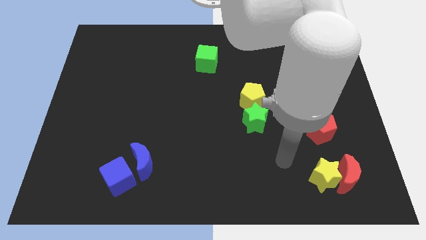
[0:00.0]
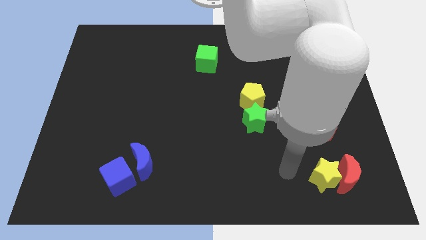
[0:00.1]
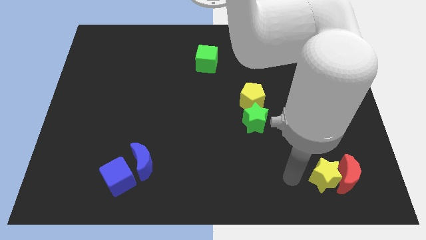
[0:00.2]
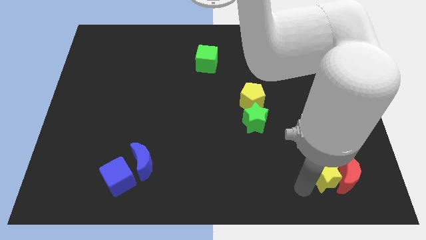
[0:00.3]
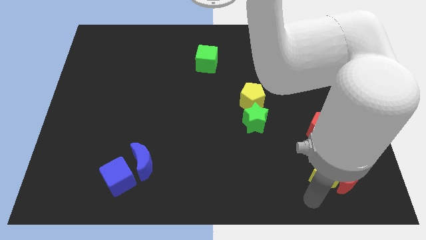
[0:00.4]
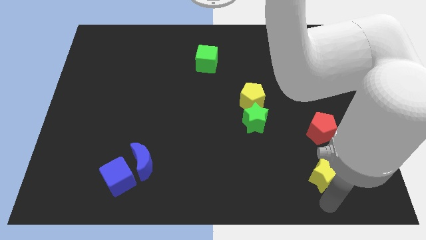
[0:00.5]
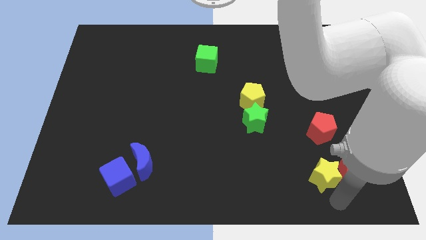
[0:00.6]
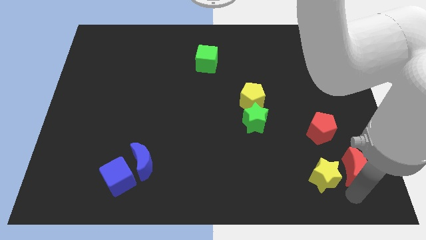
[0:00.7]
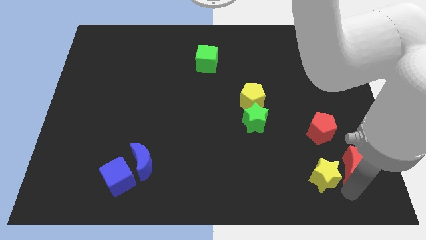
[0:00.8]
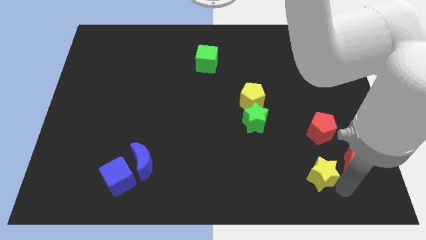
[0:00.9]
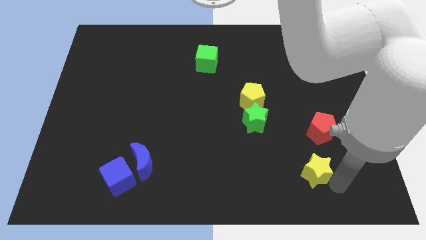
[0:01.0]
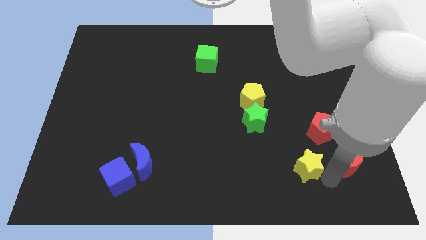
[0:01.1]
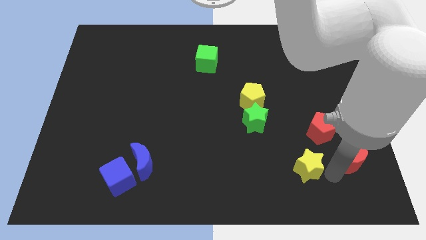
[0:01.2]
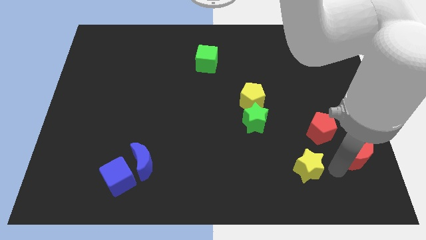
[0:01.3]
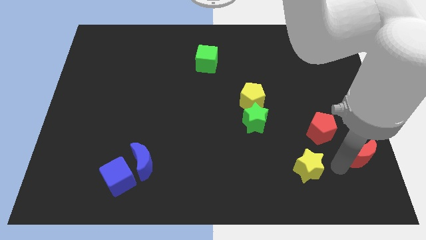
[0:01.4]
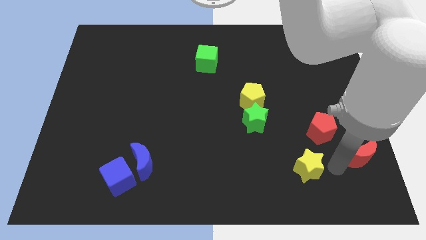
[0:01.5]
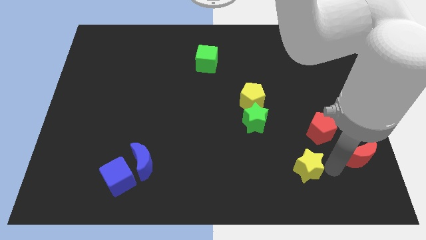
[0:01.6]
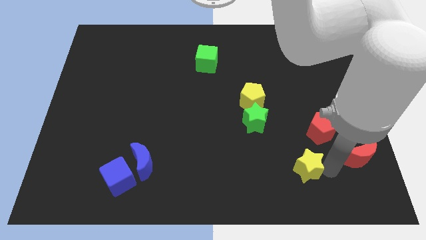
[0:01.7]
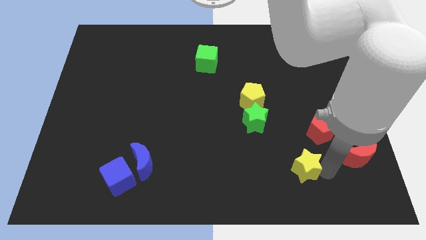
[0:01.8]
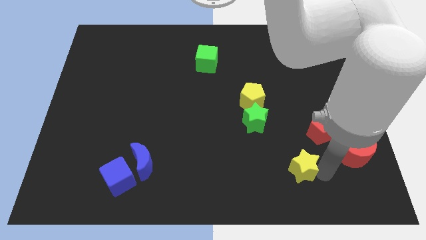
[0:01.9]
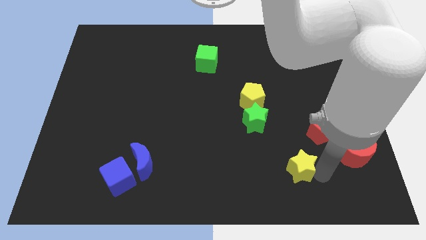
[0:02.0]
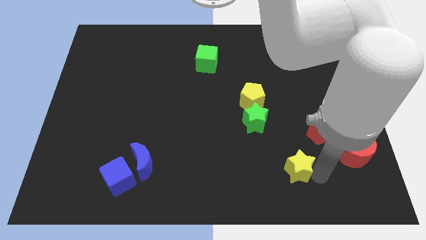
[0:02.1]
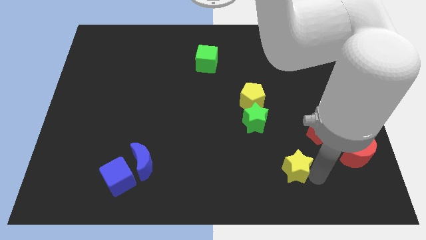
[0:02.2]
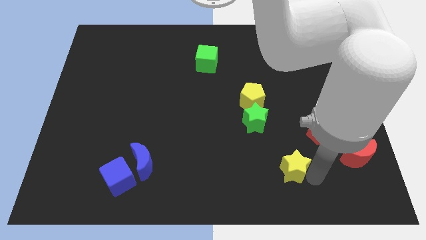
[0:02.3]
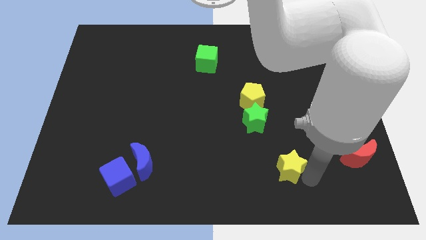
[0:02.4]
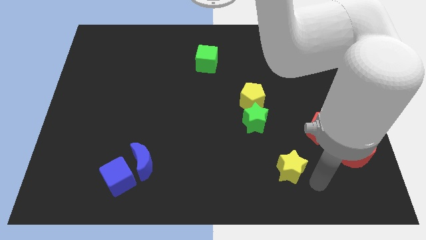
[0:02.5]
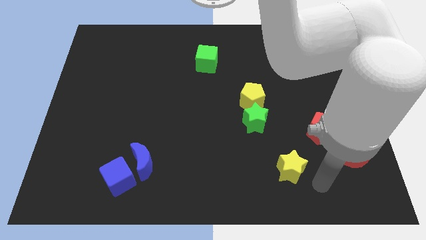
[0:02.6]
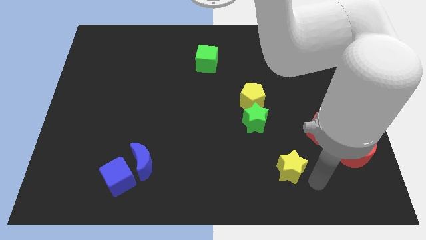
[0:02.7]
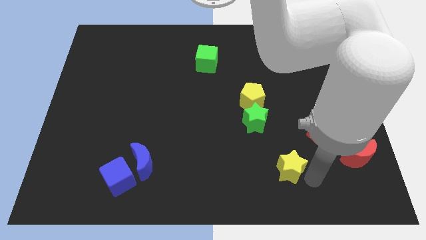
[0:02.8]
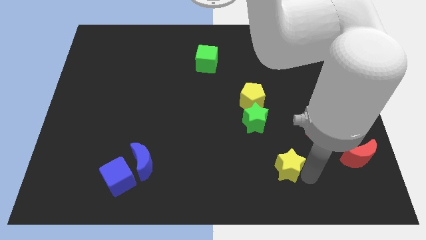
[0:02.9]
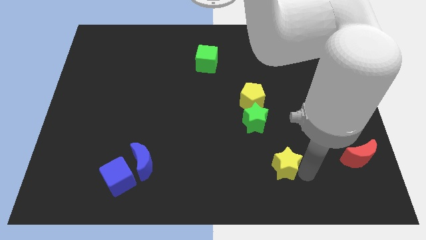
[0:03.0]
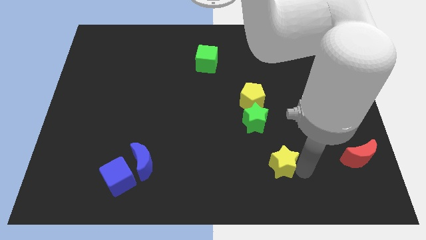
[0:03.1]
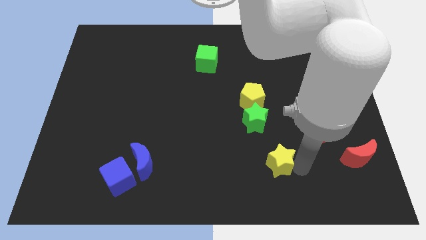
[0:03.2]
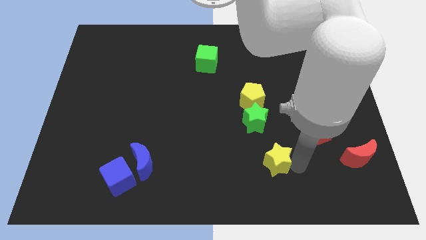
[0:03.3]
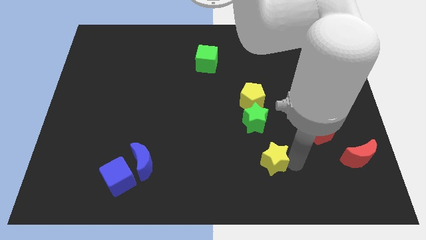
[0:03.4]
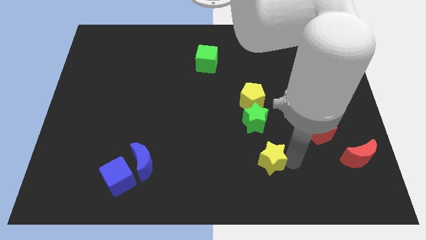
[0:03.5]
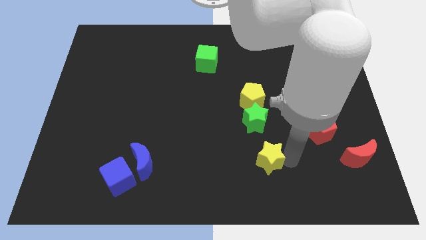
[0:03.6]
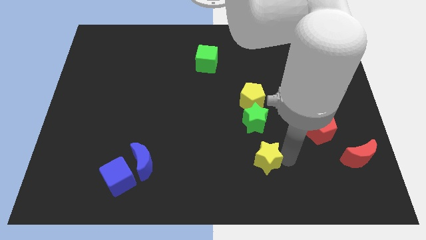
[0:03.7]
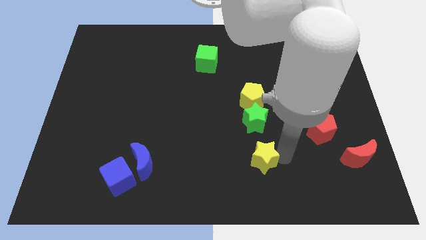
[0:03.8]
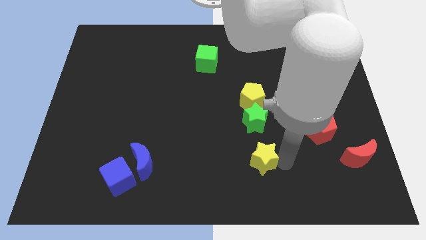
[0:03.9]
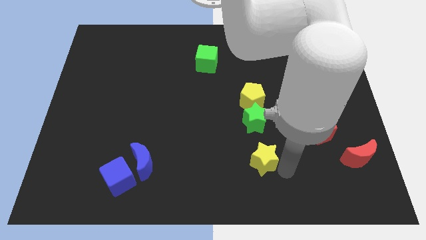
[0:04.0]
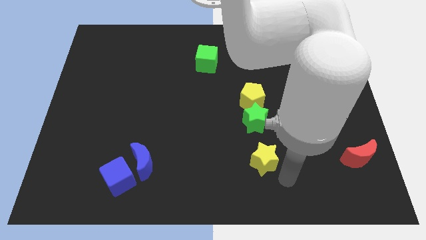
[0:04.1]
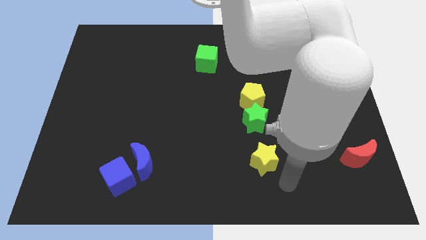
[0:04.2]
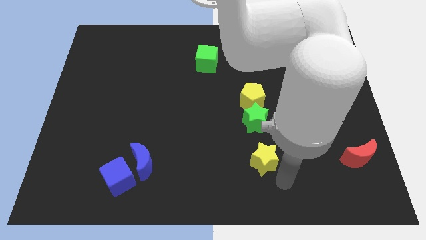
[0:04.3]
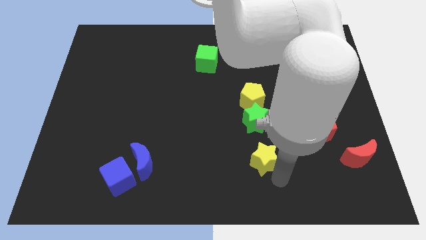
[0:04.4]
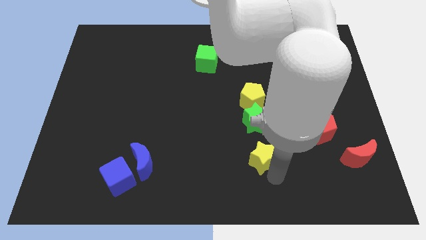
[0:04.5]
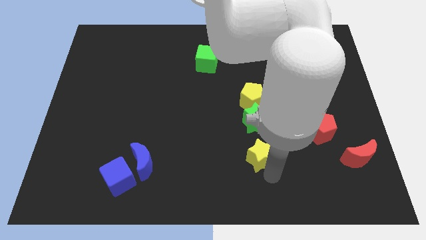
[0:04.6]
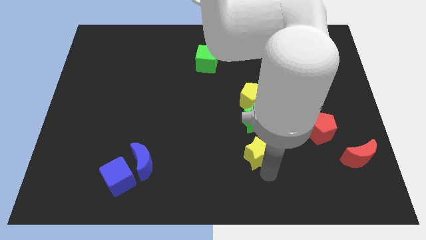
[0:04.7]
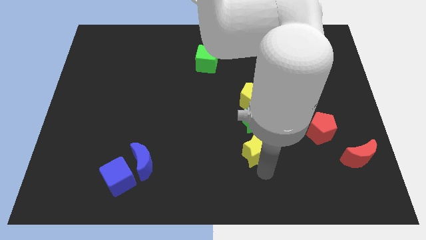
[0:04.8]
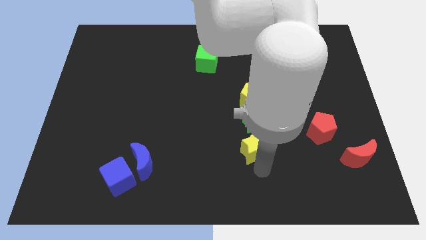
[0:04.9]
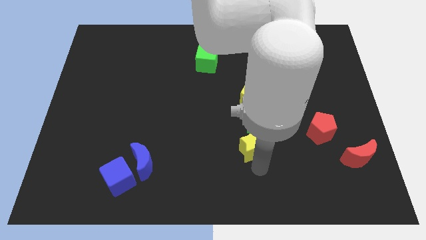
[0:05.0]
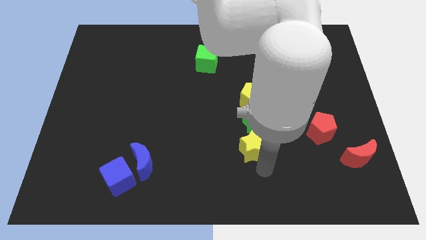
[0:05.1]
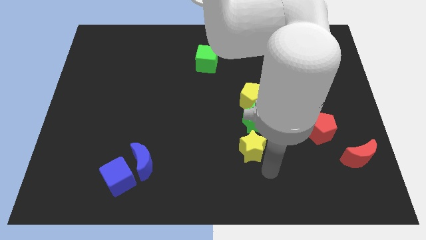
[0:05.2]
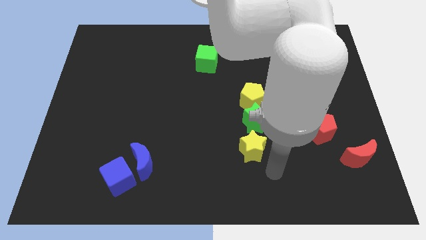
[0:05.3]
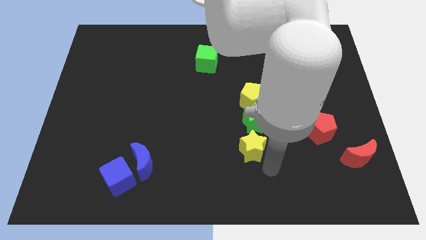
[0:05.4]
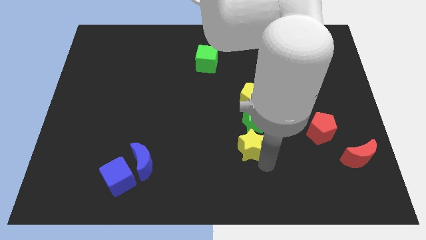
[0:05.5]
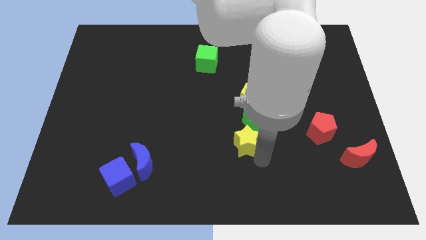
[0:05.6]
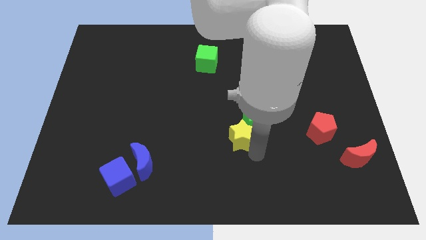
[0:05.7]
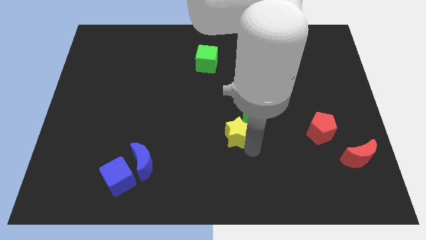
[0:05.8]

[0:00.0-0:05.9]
slide the yellow star left of the green star

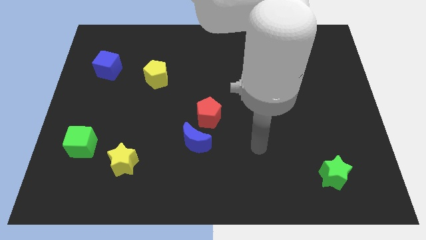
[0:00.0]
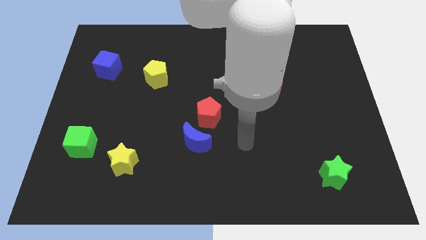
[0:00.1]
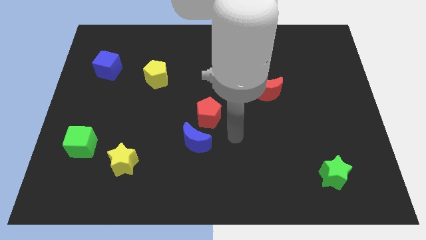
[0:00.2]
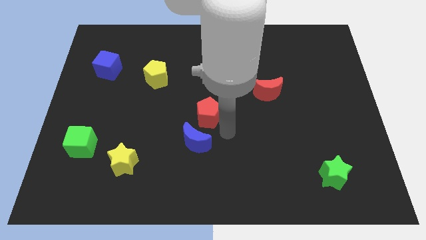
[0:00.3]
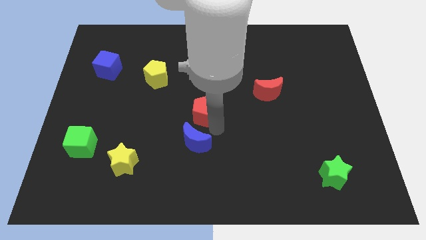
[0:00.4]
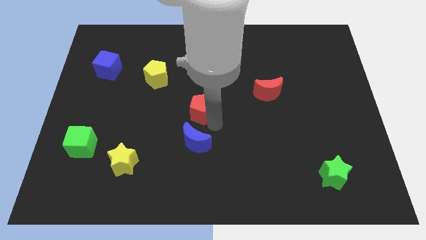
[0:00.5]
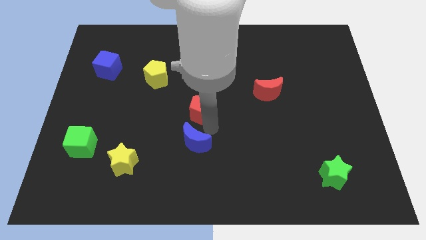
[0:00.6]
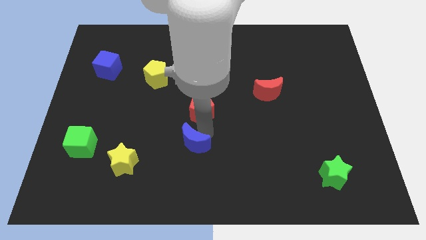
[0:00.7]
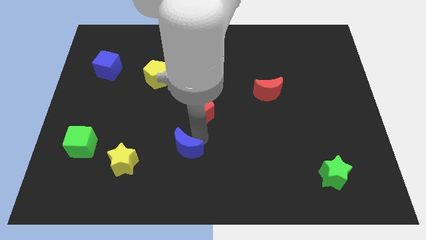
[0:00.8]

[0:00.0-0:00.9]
put the blue moon just right of the yellow star
